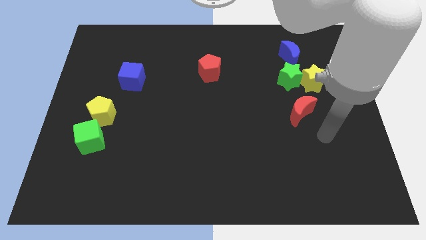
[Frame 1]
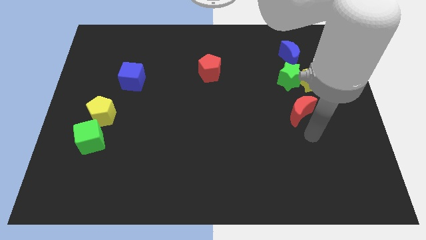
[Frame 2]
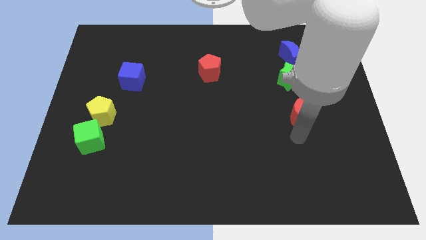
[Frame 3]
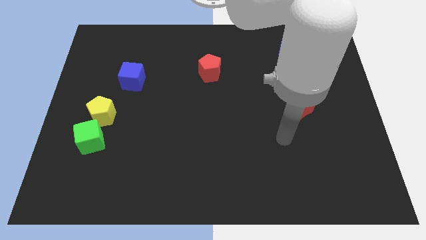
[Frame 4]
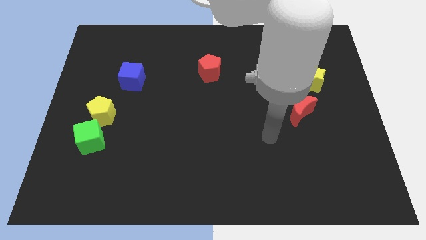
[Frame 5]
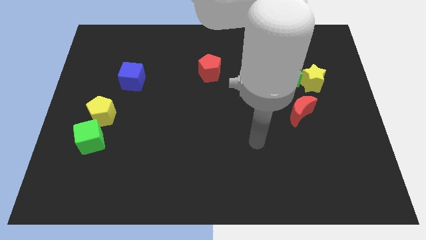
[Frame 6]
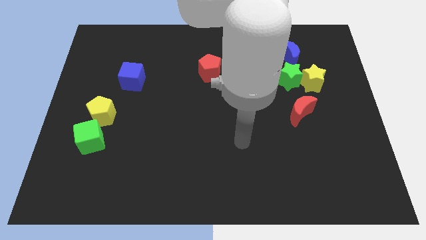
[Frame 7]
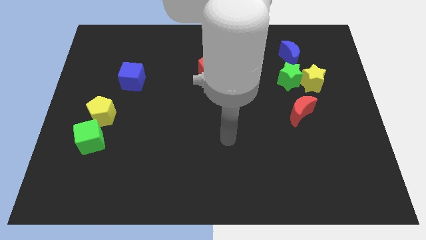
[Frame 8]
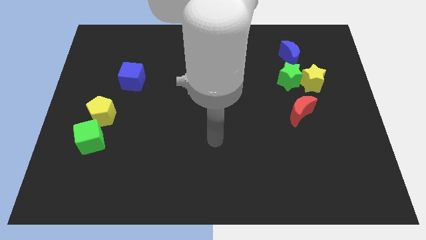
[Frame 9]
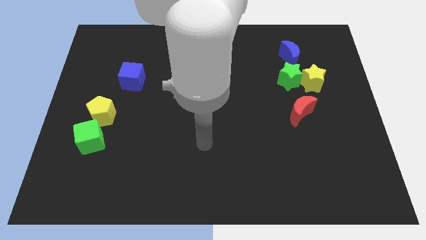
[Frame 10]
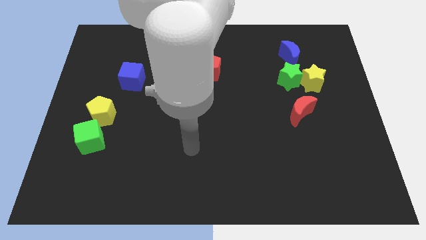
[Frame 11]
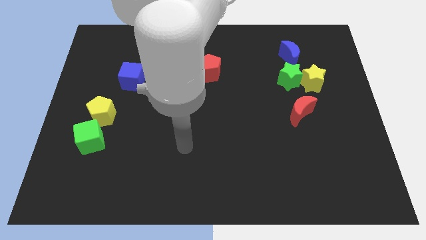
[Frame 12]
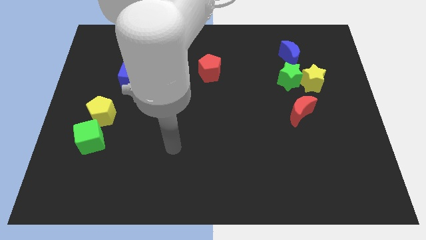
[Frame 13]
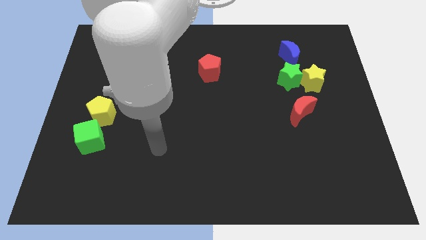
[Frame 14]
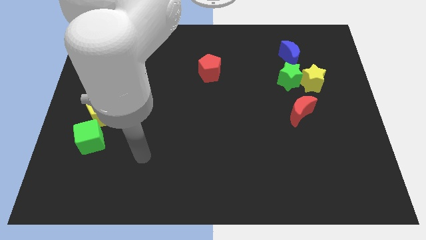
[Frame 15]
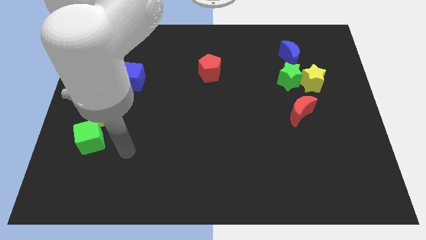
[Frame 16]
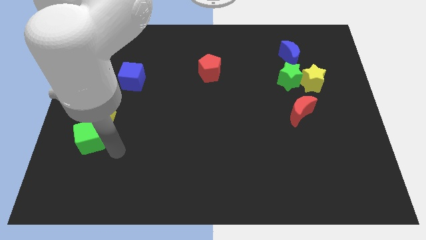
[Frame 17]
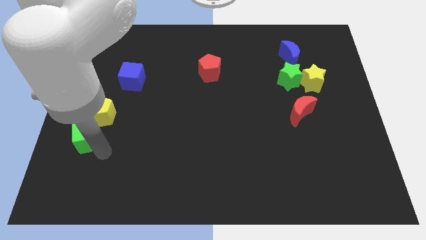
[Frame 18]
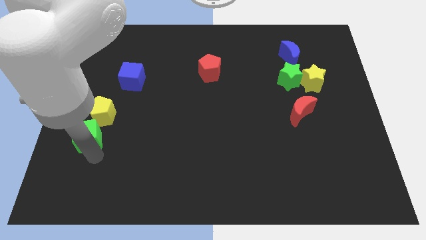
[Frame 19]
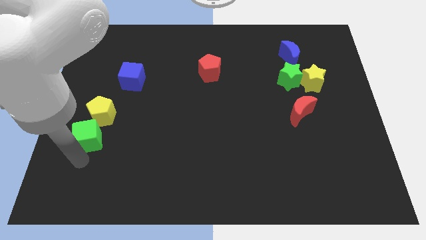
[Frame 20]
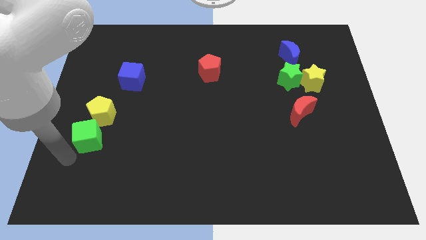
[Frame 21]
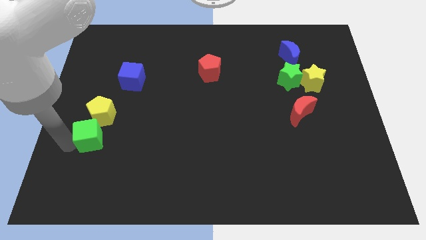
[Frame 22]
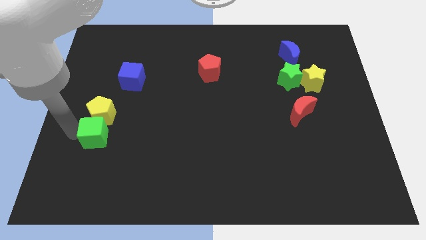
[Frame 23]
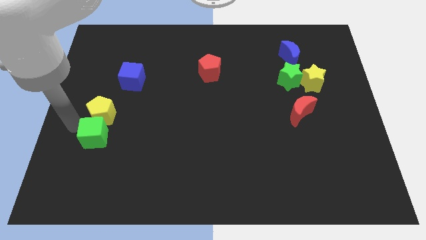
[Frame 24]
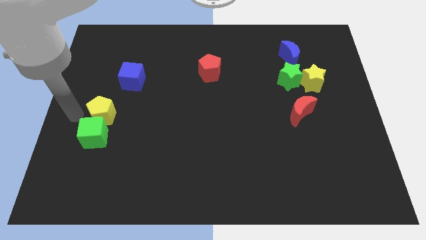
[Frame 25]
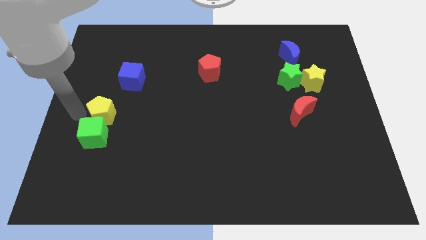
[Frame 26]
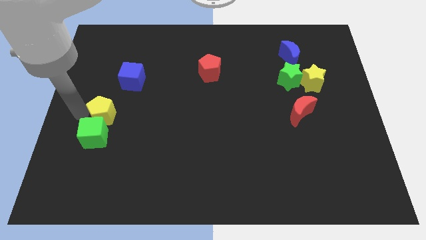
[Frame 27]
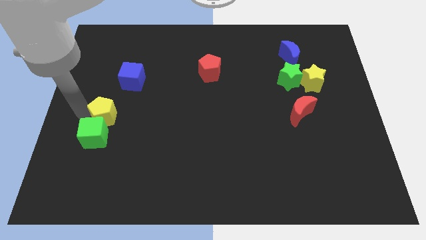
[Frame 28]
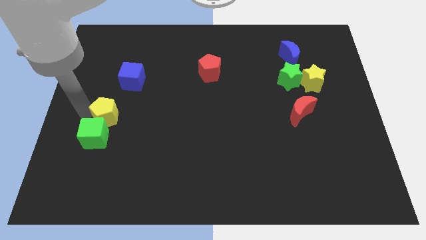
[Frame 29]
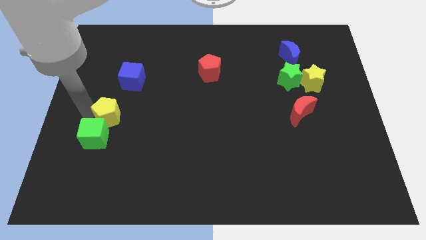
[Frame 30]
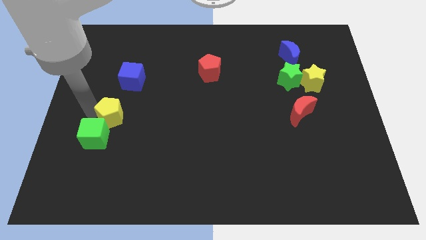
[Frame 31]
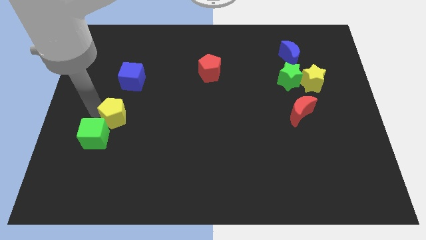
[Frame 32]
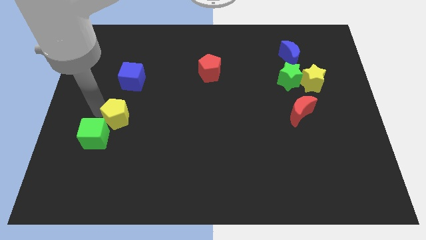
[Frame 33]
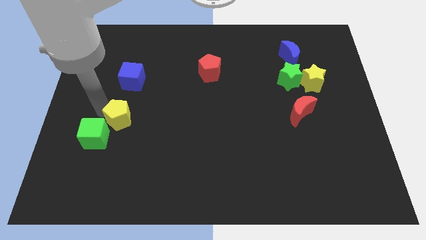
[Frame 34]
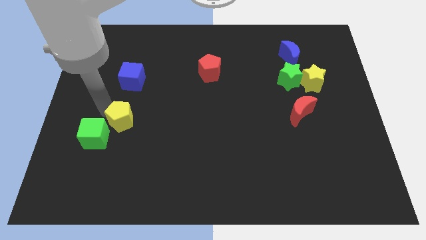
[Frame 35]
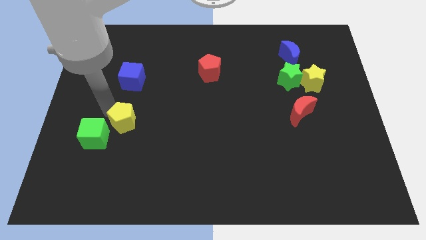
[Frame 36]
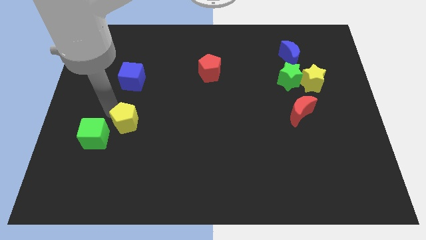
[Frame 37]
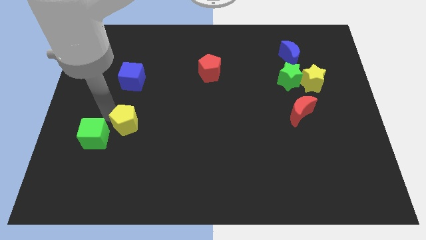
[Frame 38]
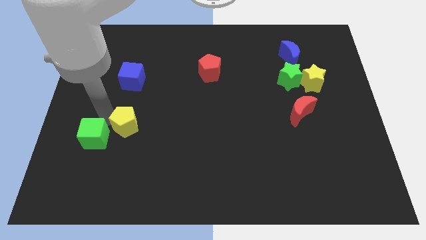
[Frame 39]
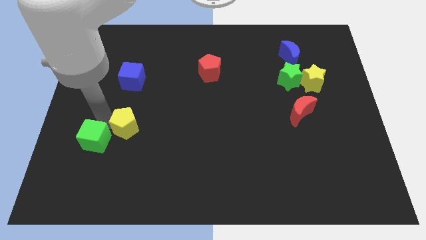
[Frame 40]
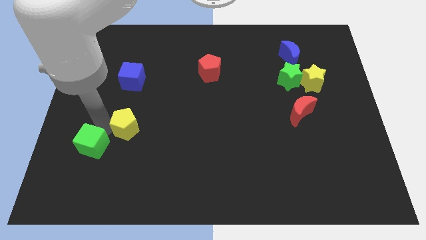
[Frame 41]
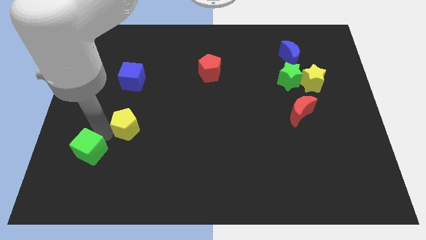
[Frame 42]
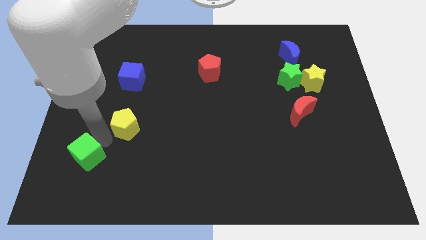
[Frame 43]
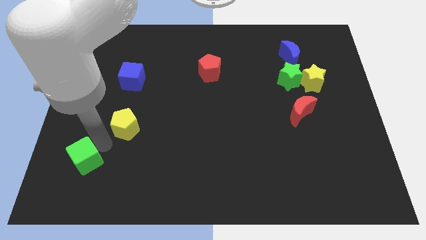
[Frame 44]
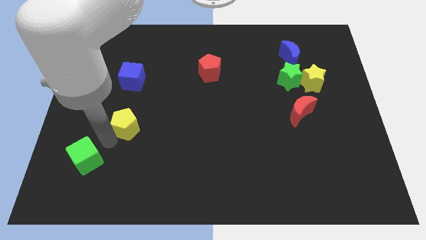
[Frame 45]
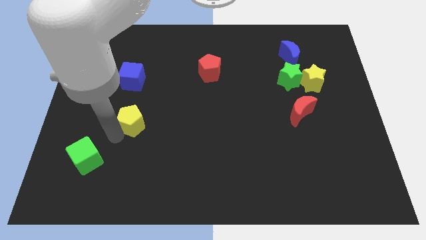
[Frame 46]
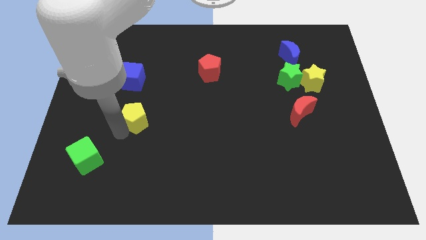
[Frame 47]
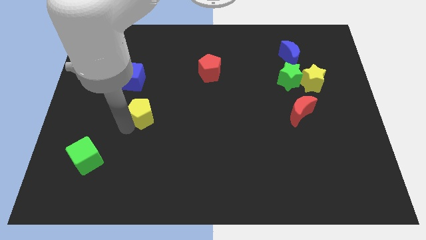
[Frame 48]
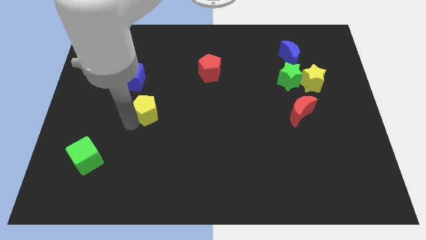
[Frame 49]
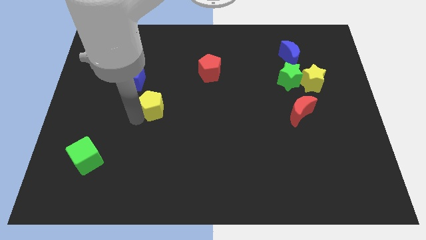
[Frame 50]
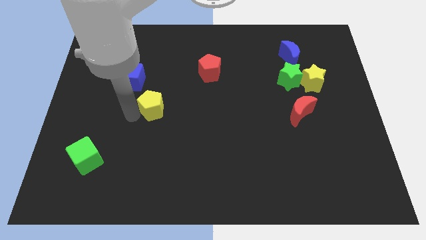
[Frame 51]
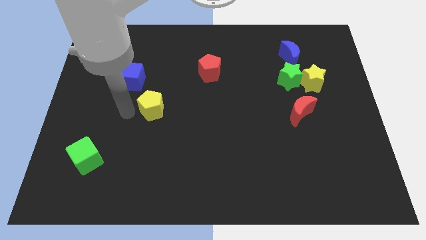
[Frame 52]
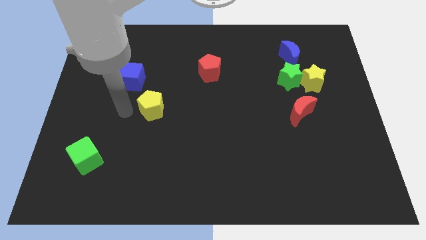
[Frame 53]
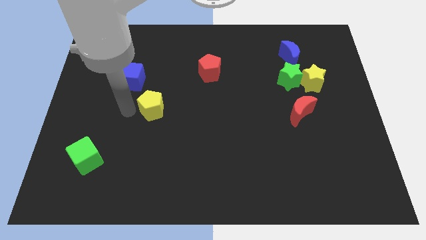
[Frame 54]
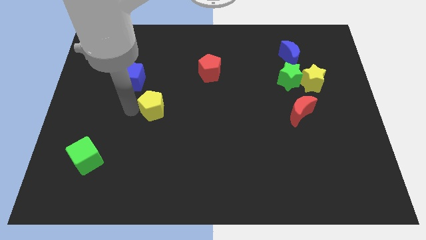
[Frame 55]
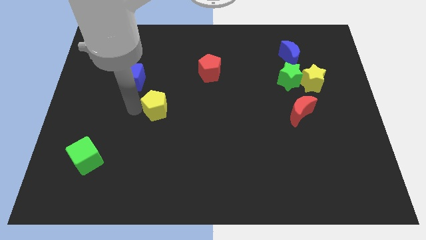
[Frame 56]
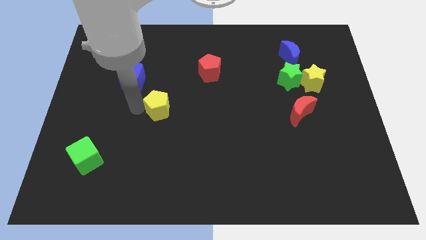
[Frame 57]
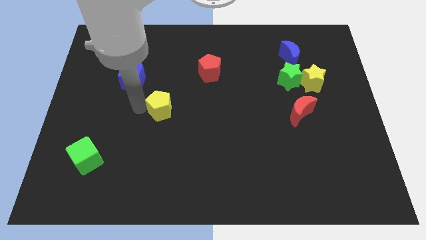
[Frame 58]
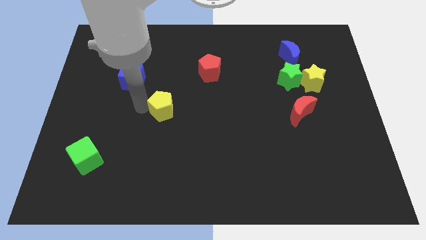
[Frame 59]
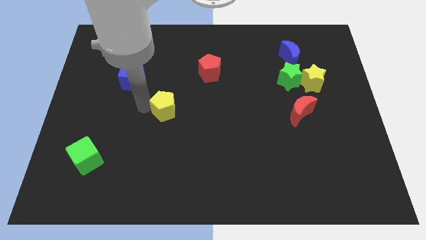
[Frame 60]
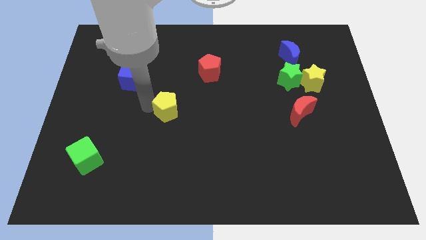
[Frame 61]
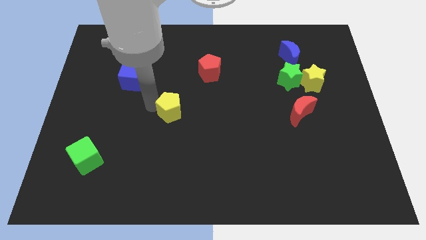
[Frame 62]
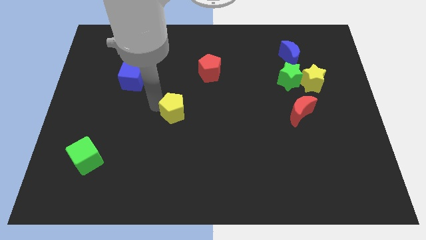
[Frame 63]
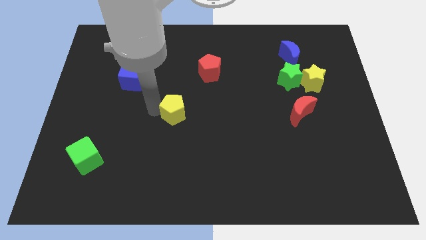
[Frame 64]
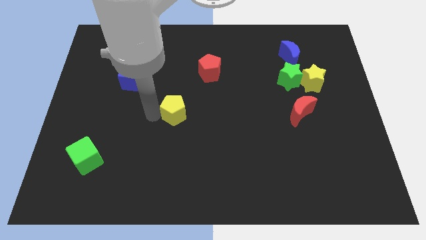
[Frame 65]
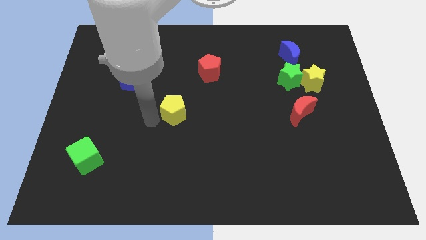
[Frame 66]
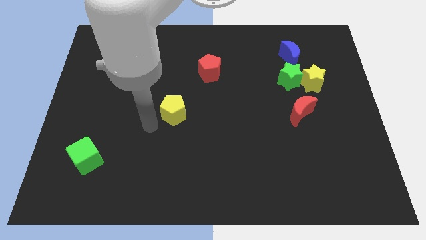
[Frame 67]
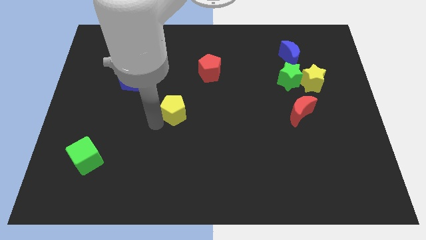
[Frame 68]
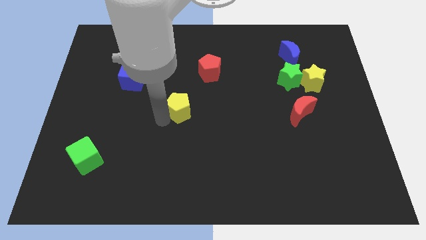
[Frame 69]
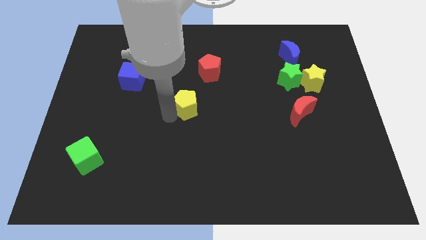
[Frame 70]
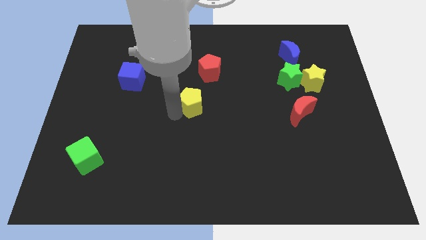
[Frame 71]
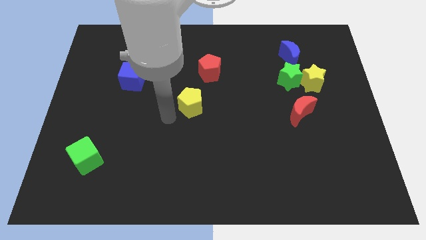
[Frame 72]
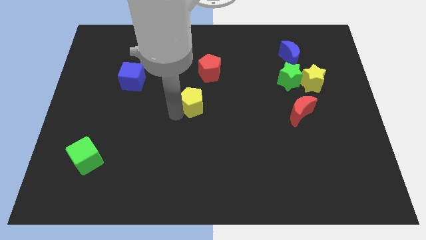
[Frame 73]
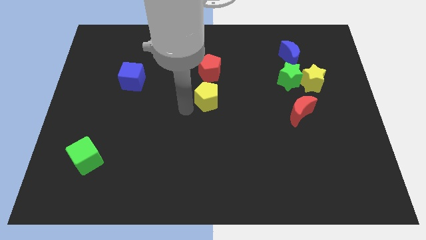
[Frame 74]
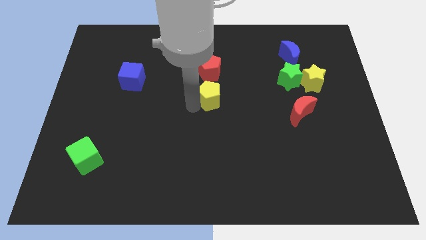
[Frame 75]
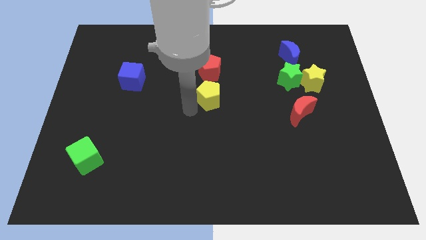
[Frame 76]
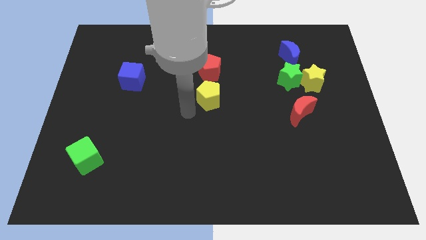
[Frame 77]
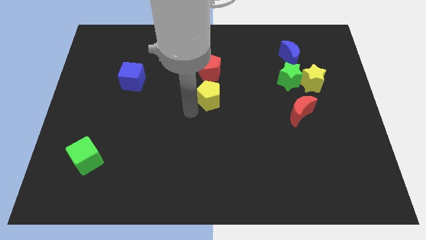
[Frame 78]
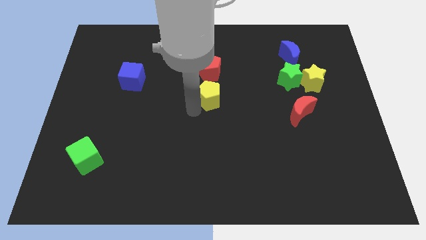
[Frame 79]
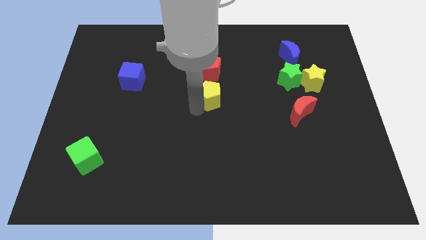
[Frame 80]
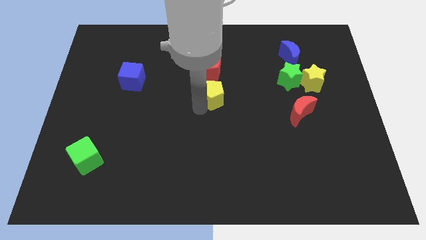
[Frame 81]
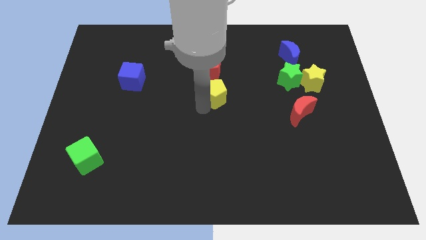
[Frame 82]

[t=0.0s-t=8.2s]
slide the yellow pentagon diagonally down and to the right of the red pentagon
